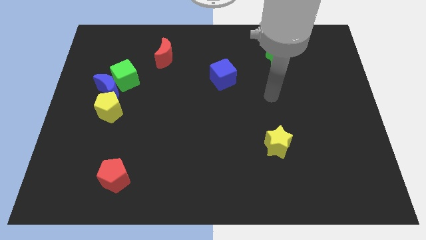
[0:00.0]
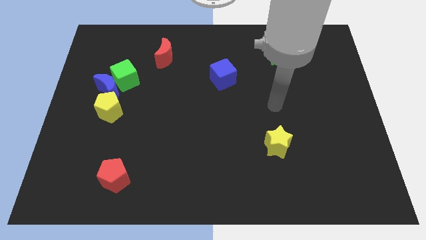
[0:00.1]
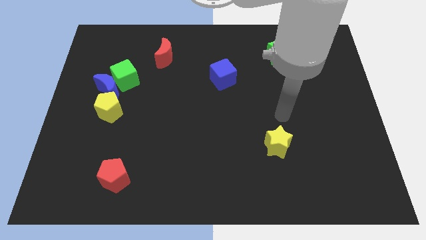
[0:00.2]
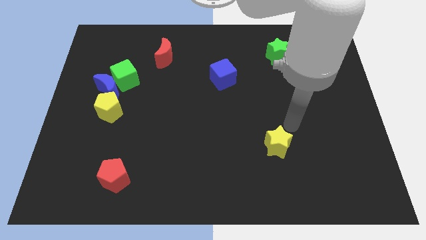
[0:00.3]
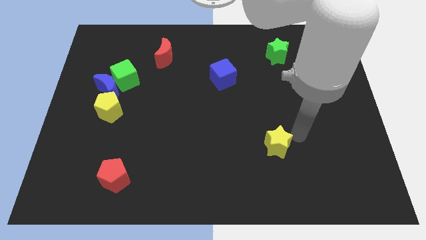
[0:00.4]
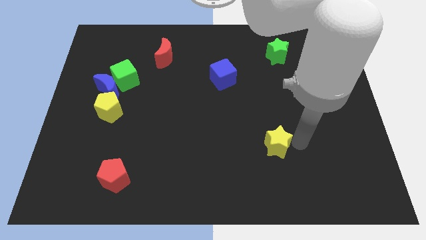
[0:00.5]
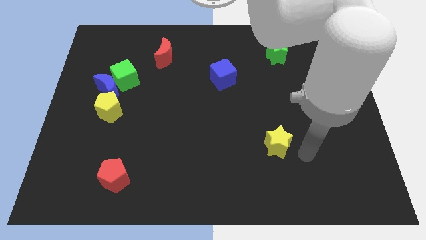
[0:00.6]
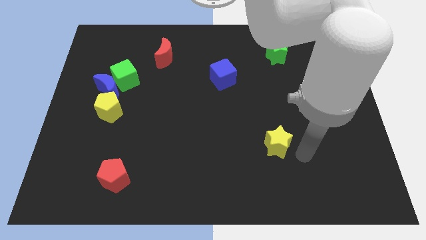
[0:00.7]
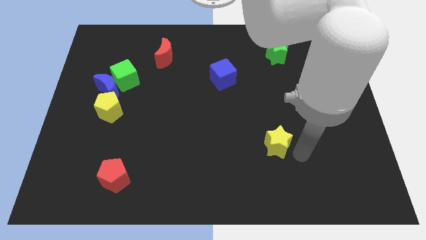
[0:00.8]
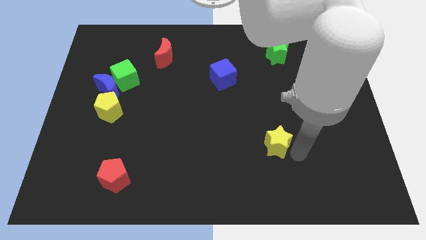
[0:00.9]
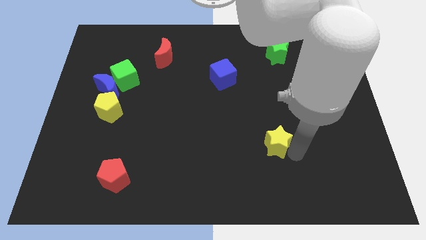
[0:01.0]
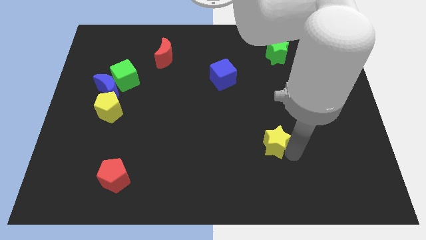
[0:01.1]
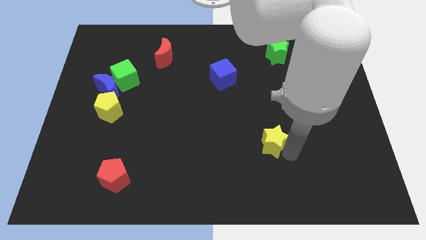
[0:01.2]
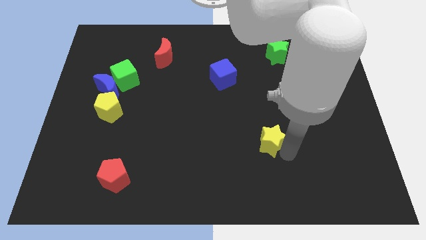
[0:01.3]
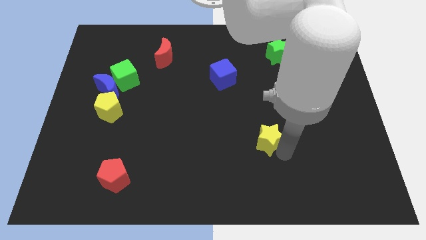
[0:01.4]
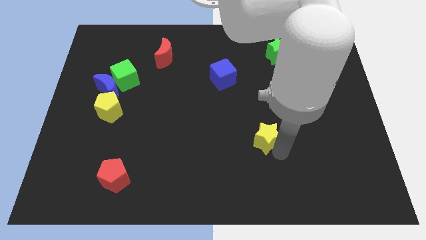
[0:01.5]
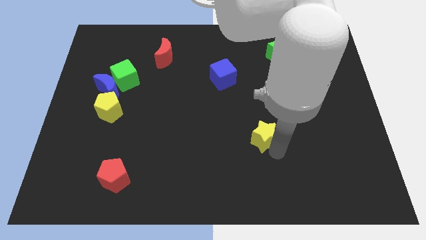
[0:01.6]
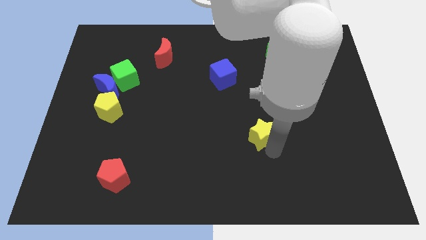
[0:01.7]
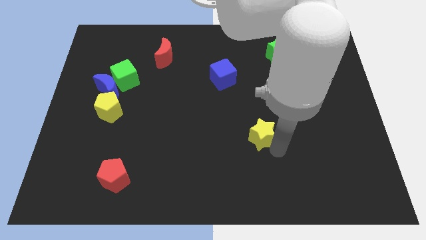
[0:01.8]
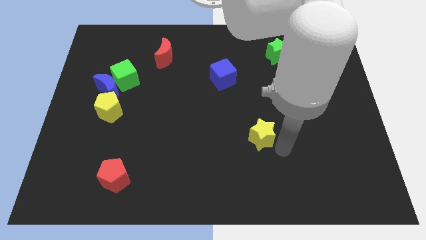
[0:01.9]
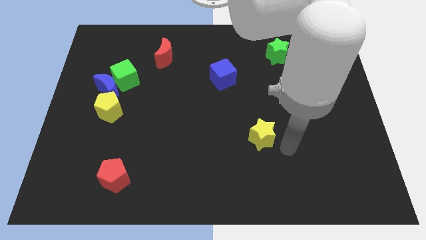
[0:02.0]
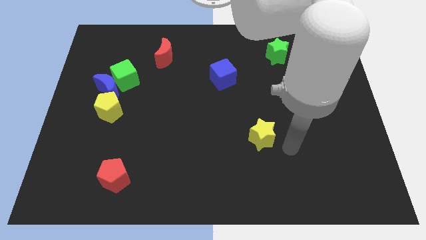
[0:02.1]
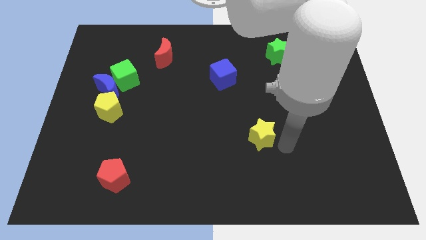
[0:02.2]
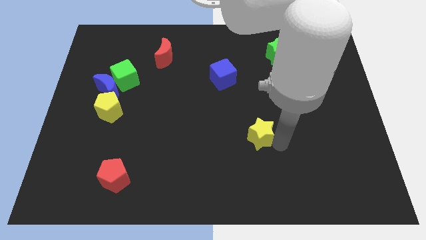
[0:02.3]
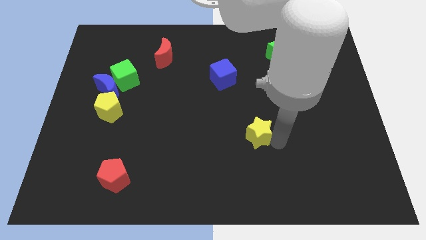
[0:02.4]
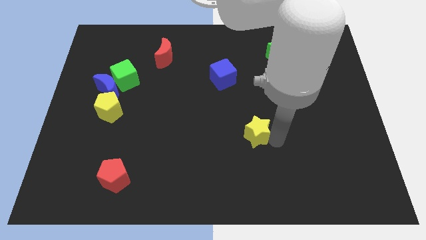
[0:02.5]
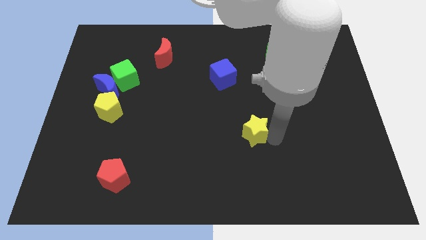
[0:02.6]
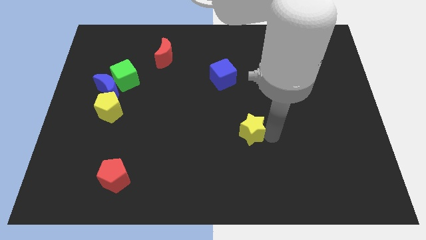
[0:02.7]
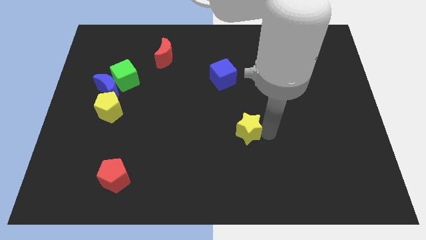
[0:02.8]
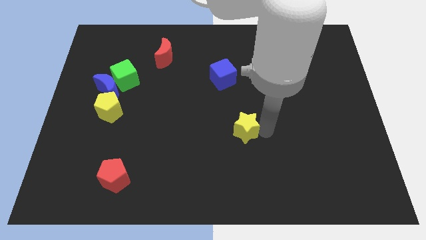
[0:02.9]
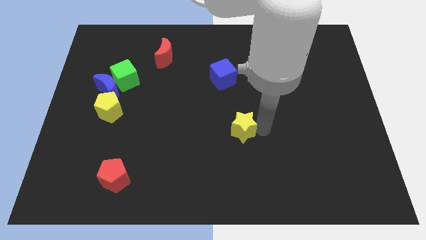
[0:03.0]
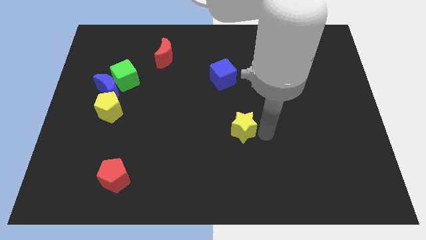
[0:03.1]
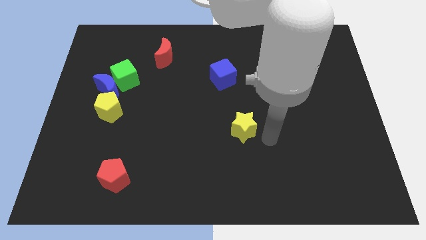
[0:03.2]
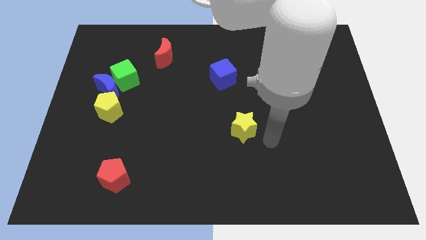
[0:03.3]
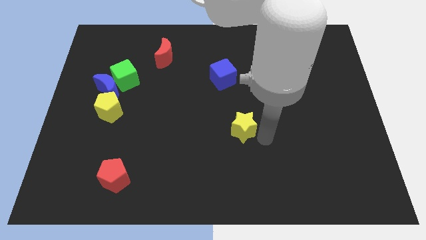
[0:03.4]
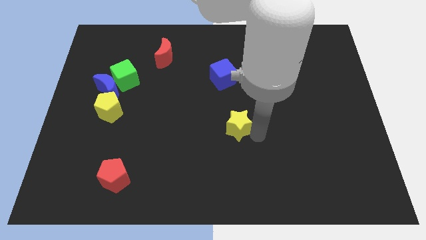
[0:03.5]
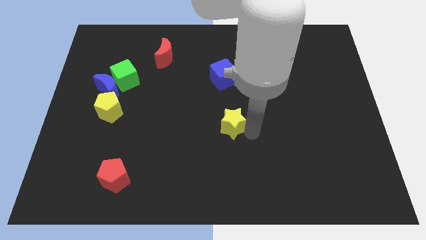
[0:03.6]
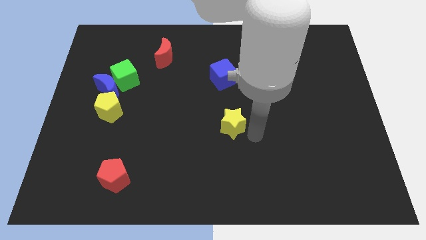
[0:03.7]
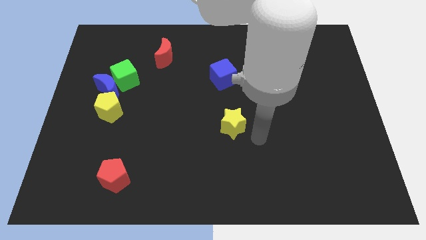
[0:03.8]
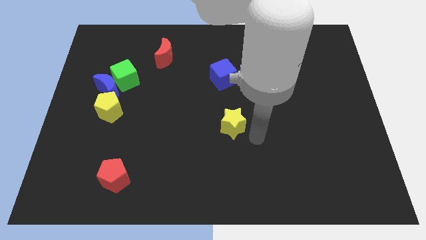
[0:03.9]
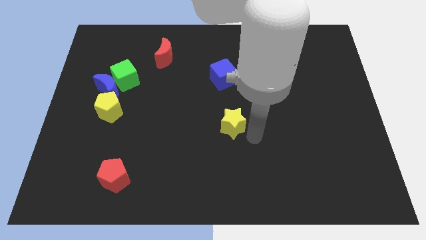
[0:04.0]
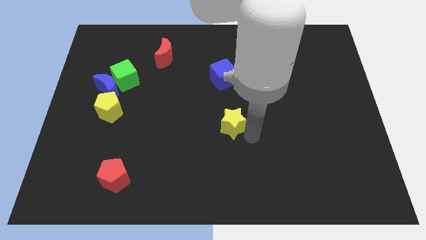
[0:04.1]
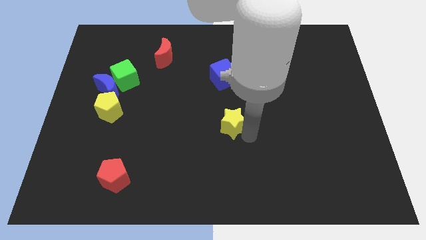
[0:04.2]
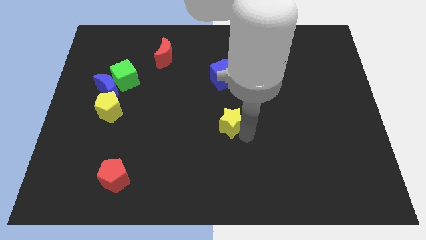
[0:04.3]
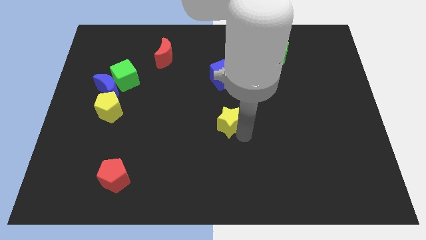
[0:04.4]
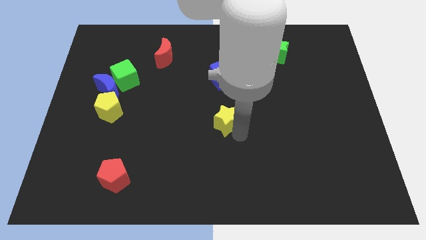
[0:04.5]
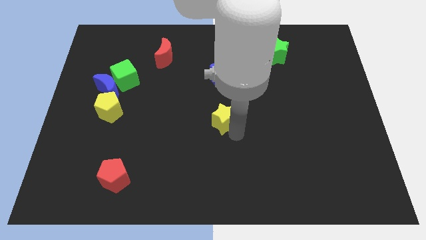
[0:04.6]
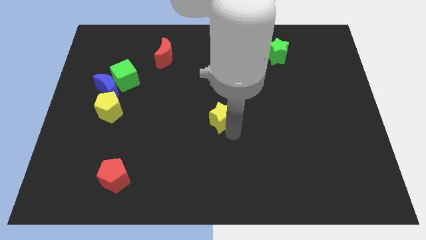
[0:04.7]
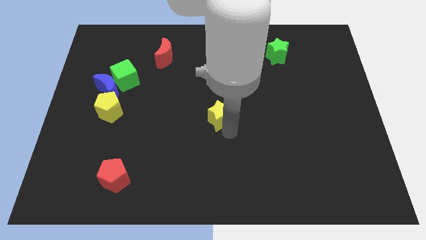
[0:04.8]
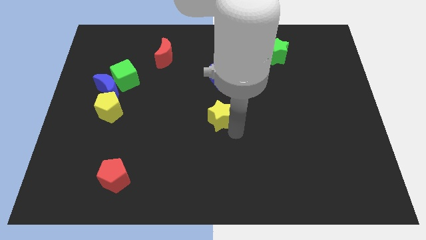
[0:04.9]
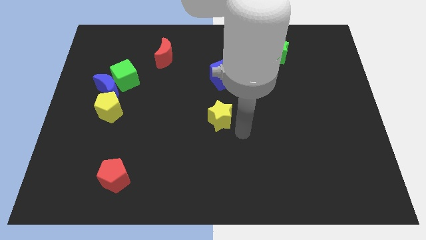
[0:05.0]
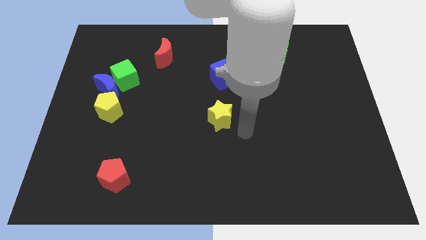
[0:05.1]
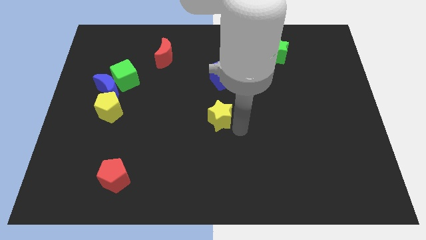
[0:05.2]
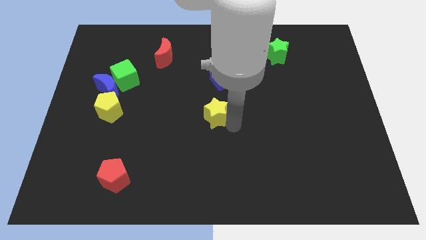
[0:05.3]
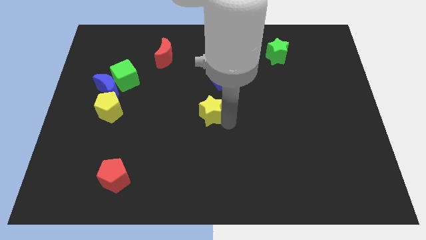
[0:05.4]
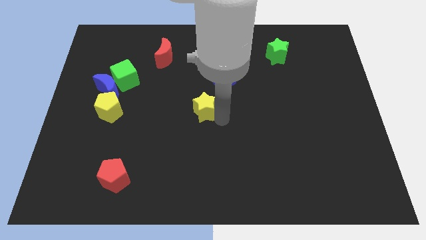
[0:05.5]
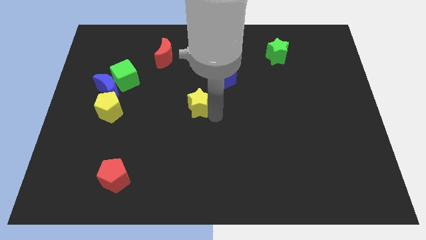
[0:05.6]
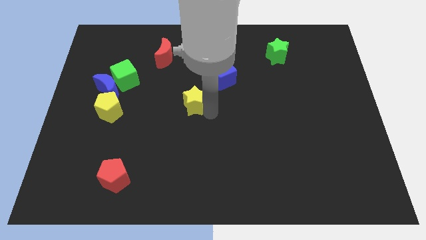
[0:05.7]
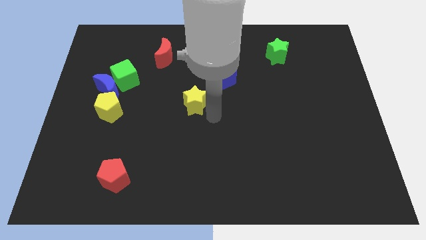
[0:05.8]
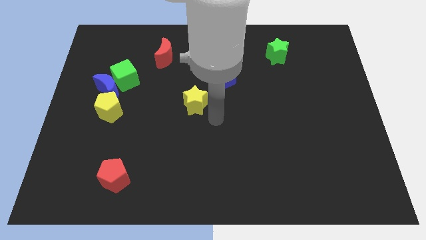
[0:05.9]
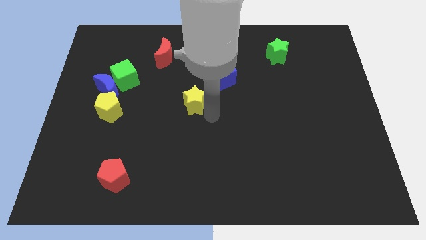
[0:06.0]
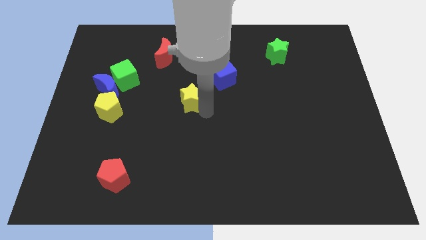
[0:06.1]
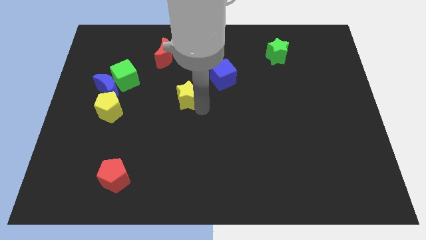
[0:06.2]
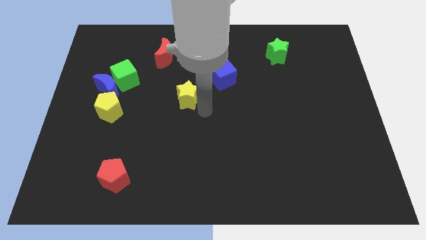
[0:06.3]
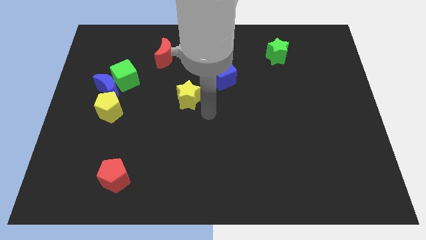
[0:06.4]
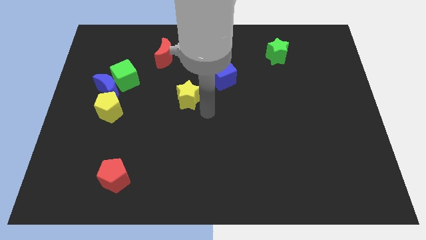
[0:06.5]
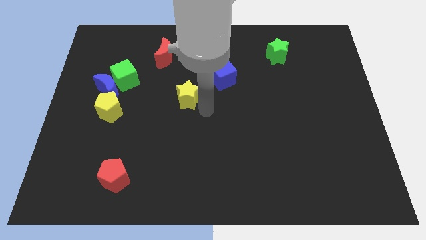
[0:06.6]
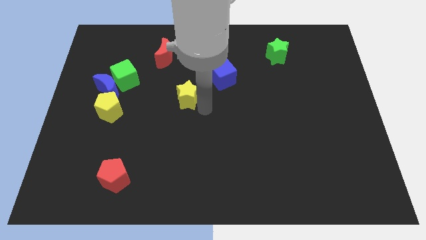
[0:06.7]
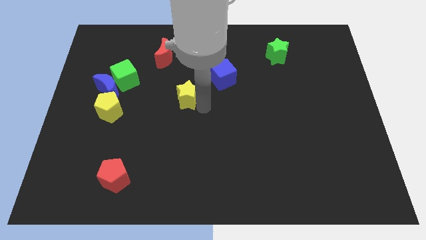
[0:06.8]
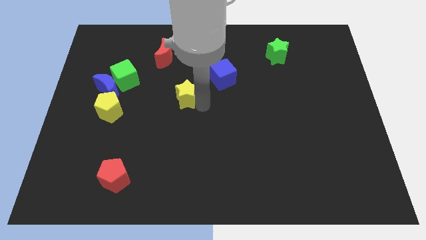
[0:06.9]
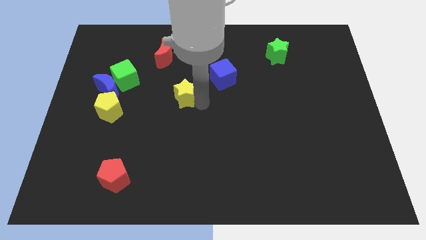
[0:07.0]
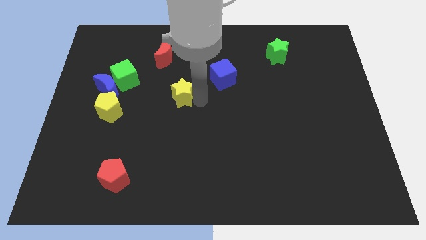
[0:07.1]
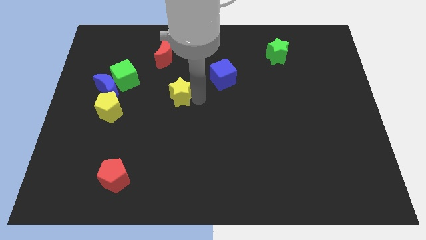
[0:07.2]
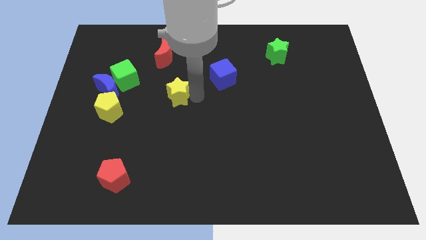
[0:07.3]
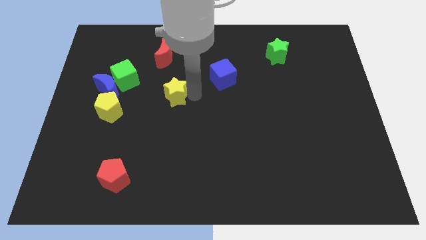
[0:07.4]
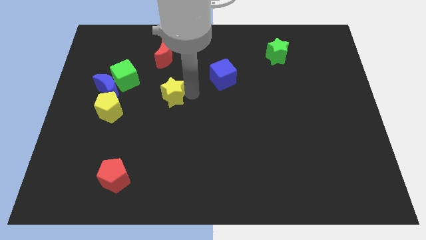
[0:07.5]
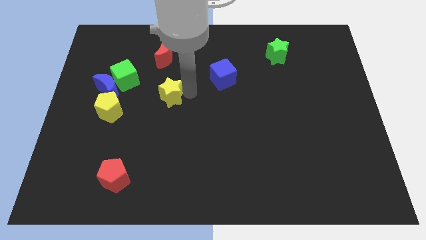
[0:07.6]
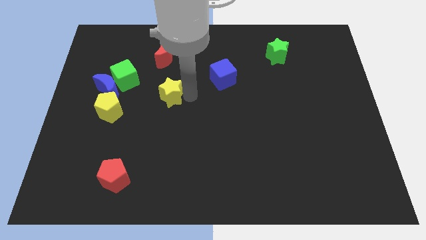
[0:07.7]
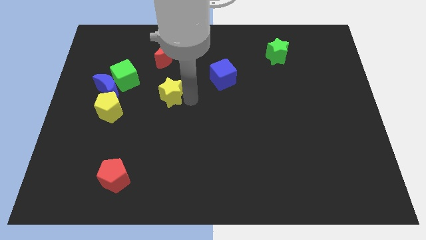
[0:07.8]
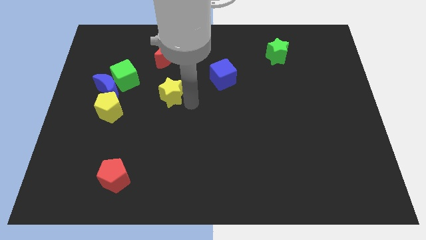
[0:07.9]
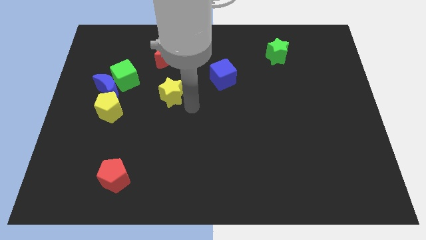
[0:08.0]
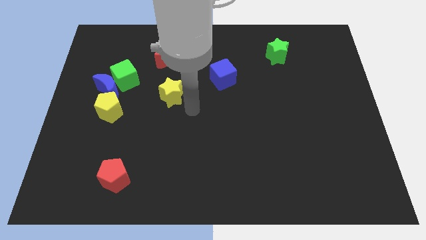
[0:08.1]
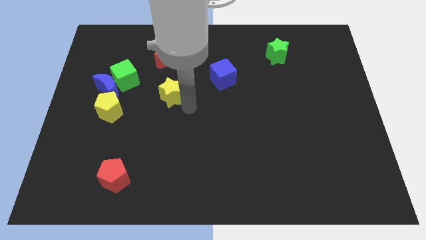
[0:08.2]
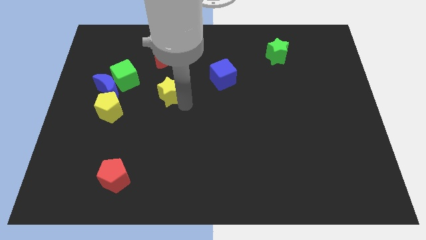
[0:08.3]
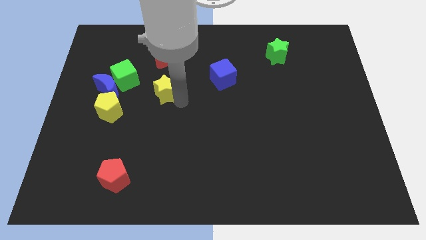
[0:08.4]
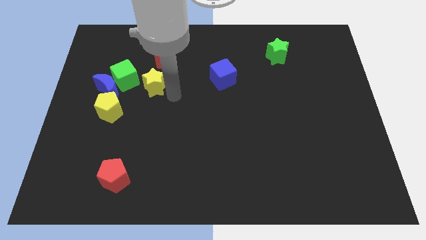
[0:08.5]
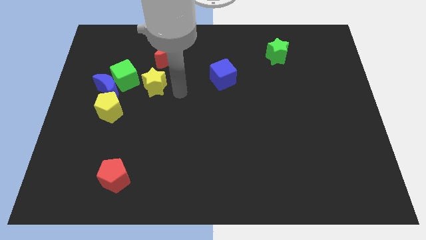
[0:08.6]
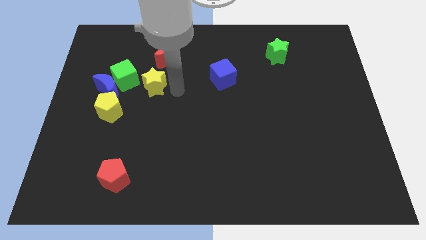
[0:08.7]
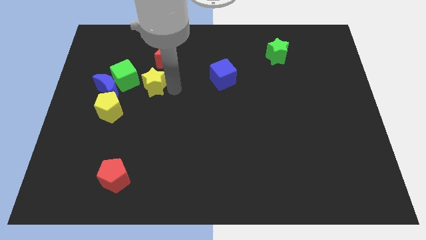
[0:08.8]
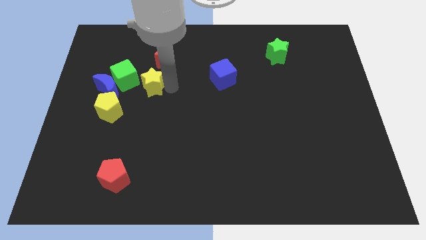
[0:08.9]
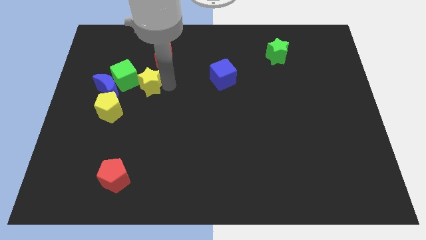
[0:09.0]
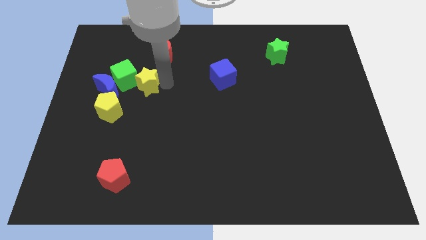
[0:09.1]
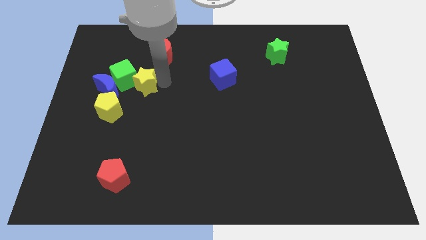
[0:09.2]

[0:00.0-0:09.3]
put the yellow star next to the green cube
